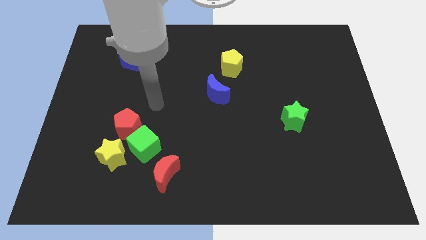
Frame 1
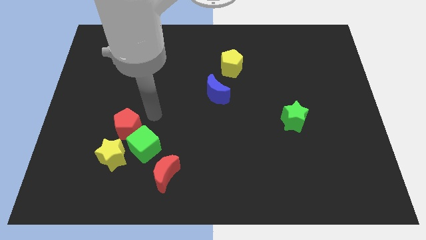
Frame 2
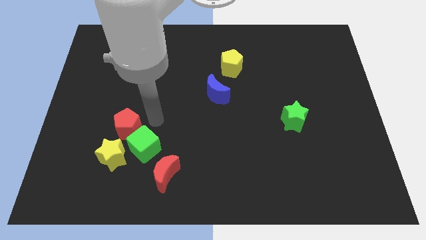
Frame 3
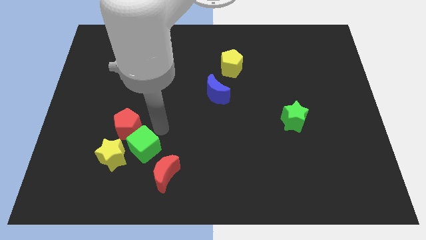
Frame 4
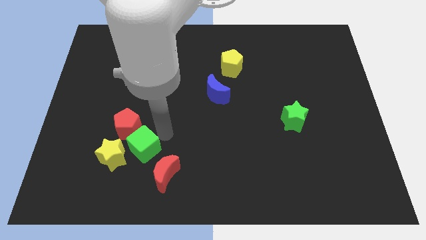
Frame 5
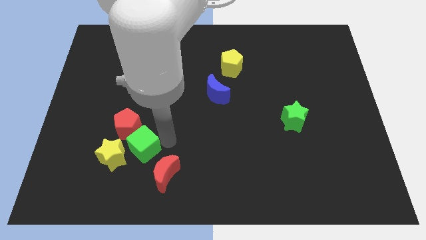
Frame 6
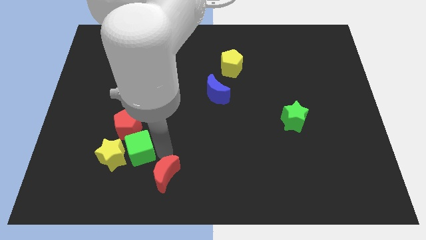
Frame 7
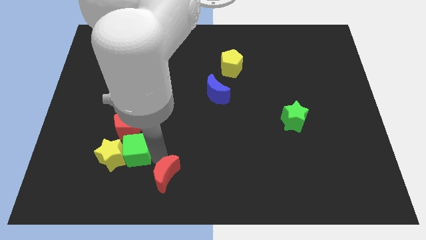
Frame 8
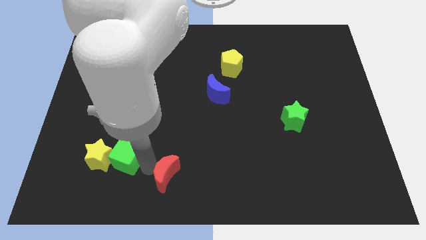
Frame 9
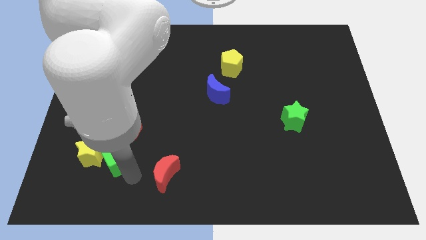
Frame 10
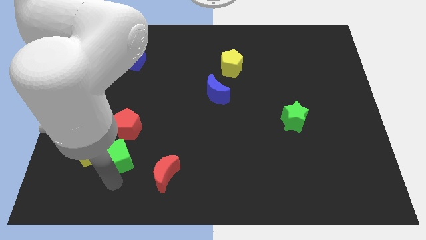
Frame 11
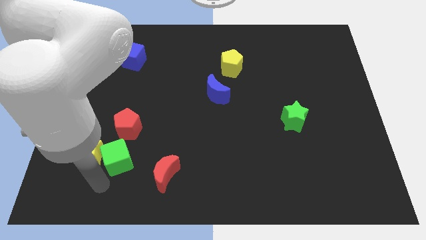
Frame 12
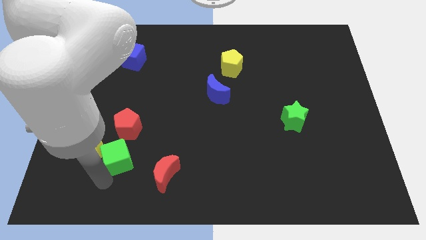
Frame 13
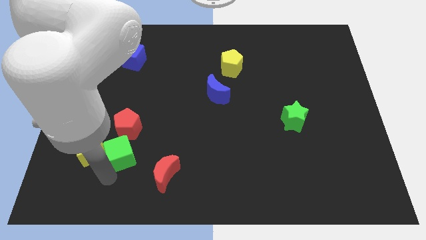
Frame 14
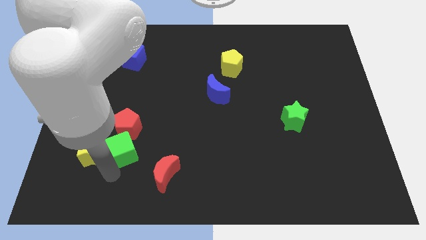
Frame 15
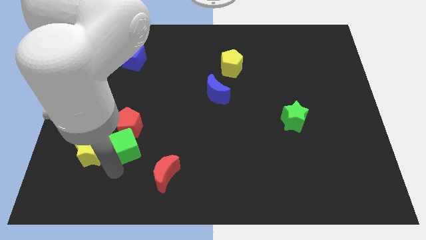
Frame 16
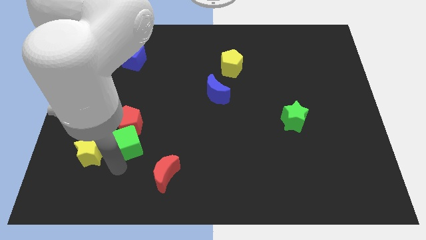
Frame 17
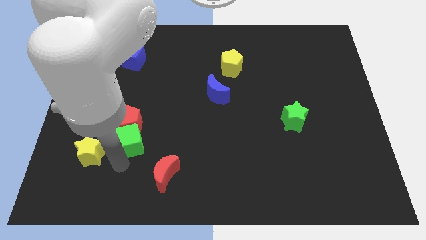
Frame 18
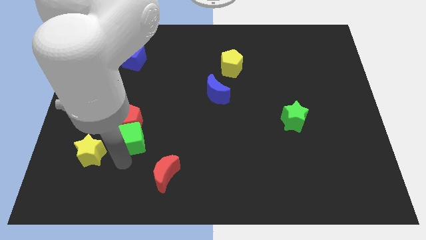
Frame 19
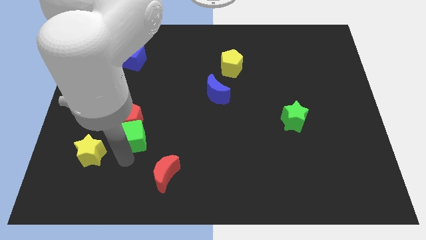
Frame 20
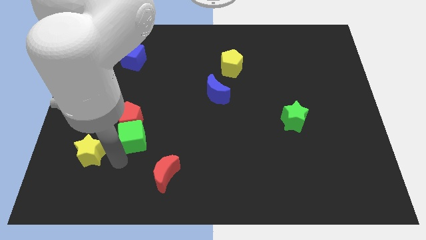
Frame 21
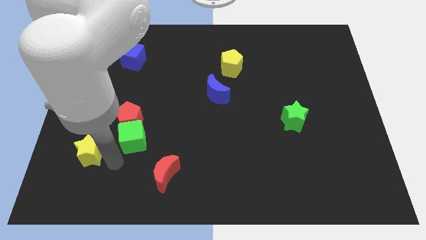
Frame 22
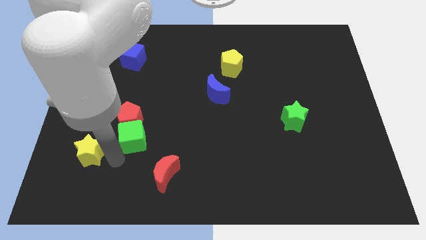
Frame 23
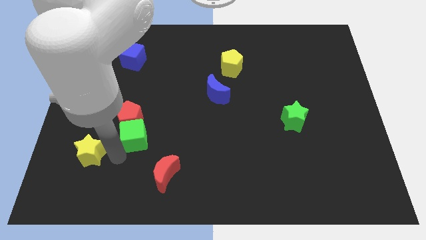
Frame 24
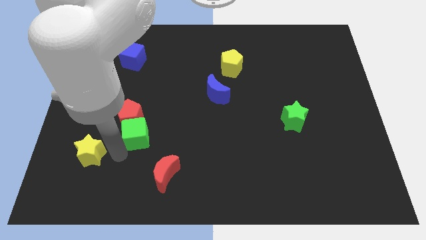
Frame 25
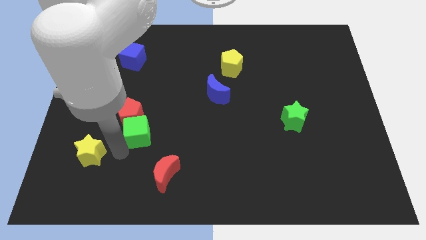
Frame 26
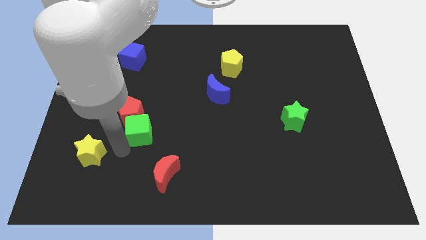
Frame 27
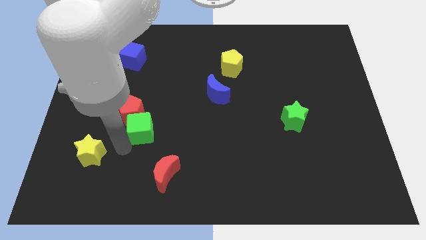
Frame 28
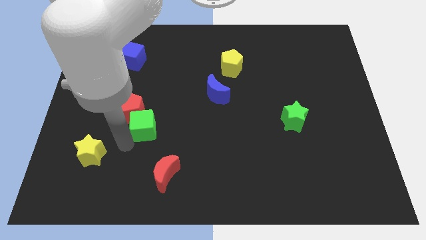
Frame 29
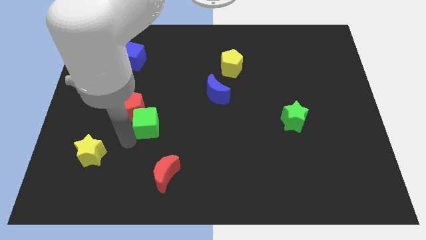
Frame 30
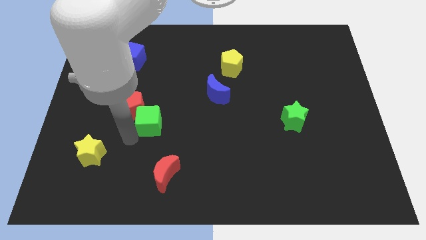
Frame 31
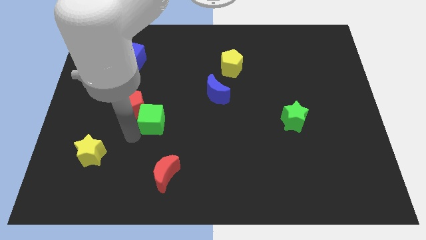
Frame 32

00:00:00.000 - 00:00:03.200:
push the green cube a little up

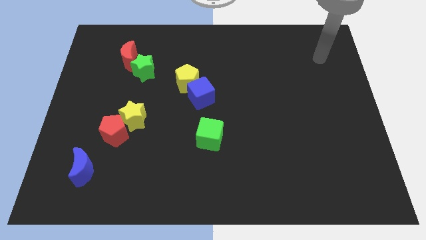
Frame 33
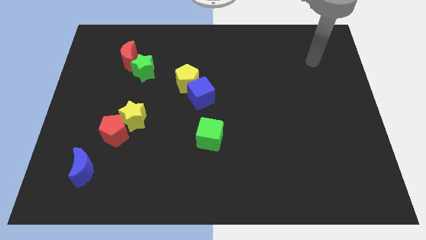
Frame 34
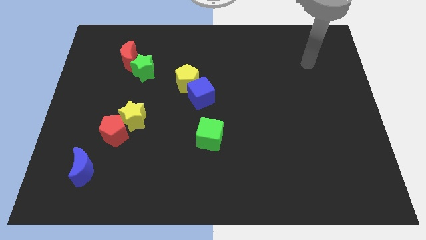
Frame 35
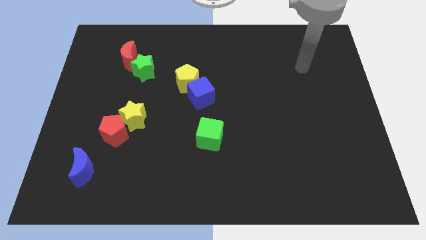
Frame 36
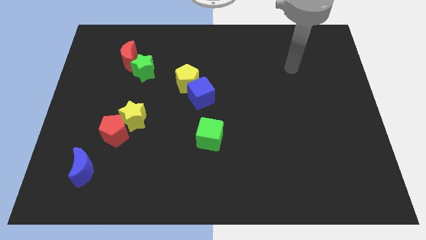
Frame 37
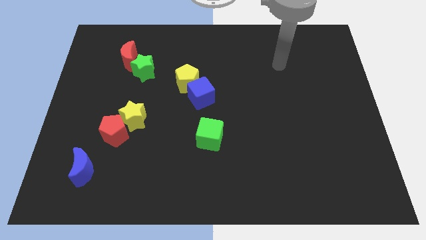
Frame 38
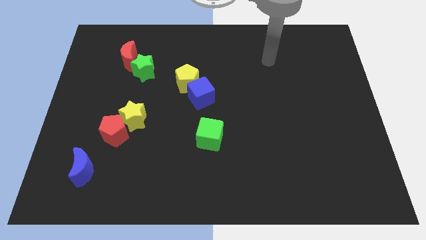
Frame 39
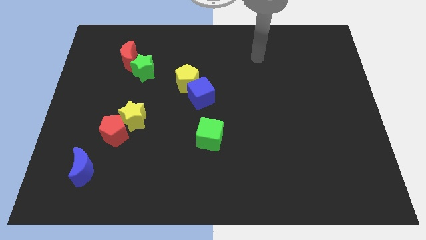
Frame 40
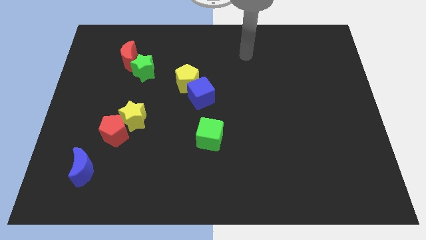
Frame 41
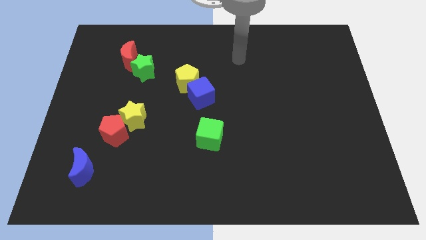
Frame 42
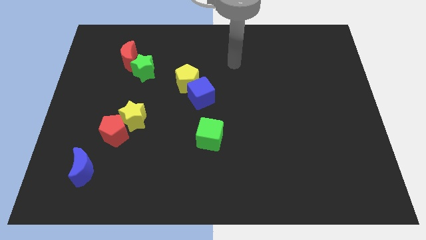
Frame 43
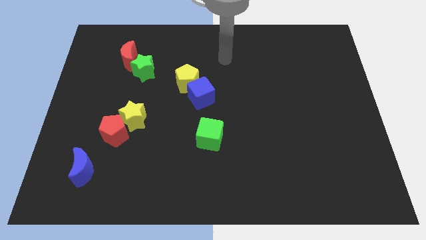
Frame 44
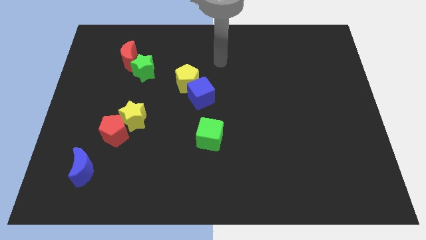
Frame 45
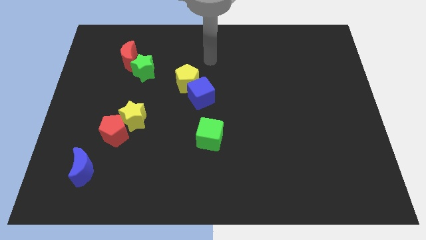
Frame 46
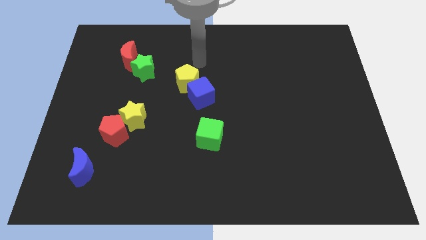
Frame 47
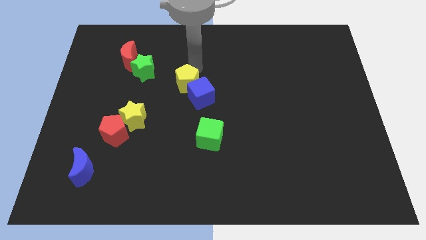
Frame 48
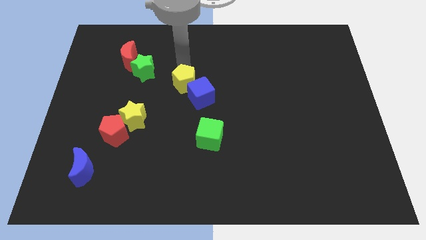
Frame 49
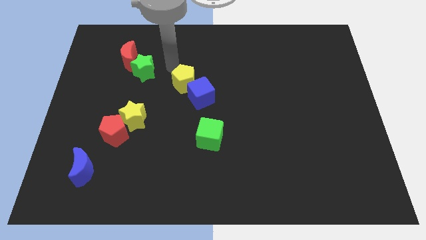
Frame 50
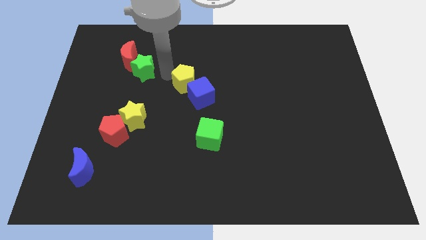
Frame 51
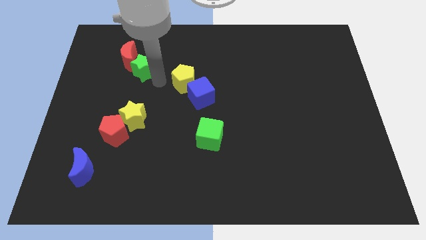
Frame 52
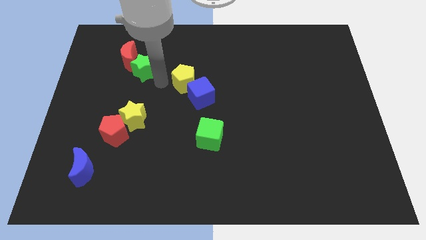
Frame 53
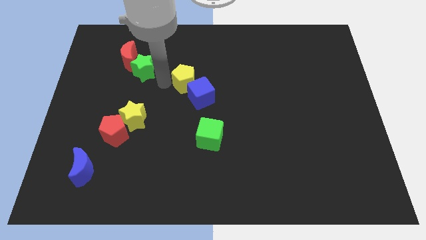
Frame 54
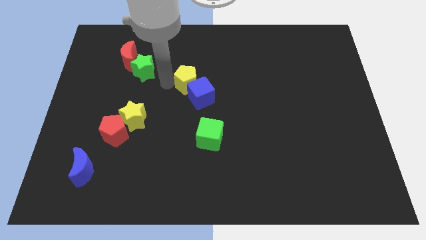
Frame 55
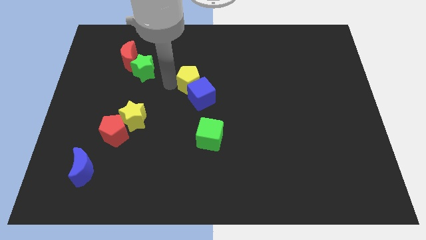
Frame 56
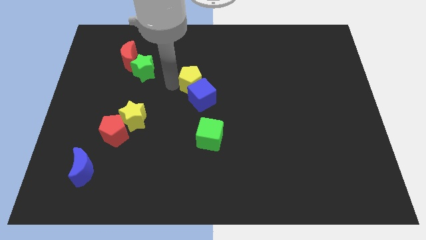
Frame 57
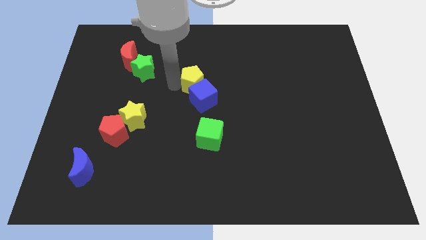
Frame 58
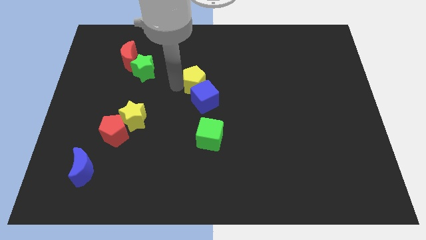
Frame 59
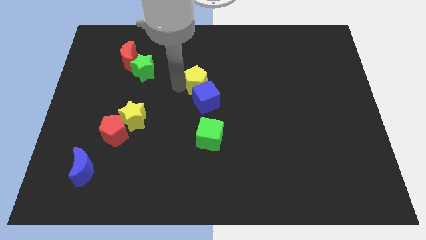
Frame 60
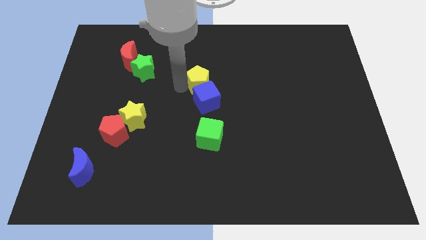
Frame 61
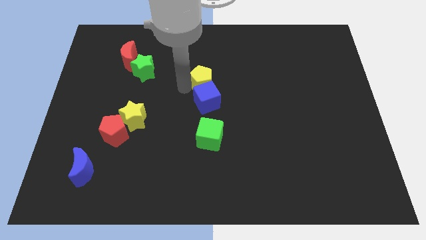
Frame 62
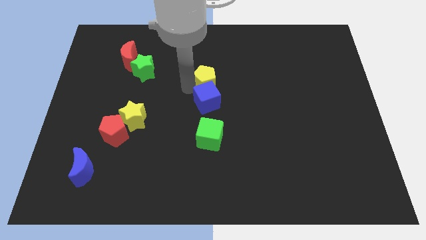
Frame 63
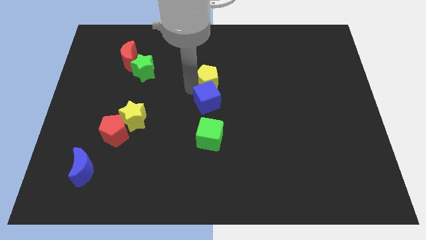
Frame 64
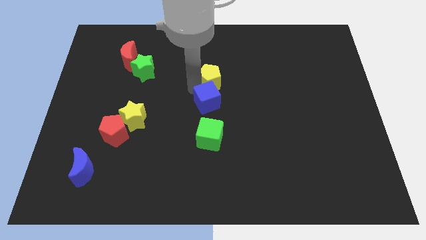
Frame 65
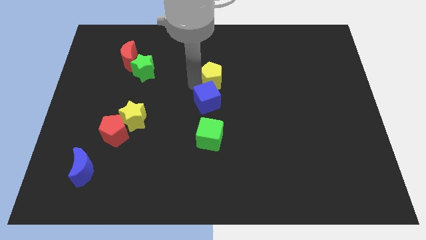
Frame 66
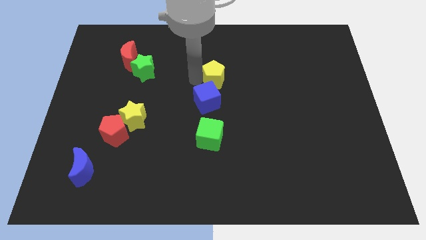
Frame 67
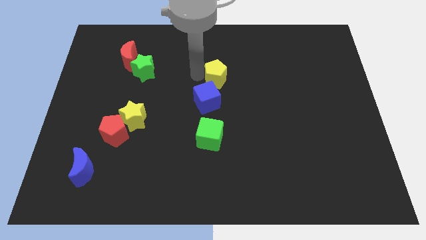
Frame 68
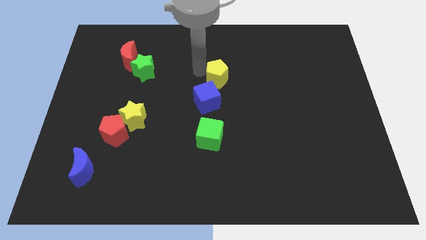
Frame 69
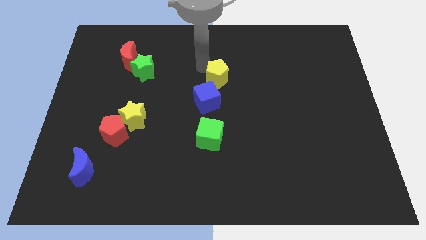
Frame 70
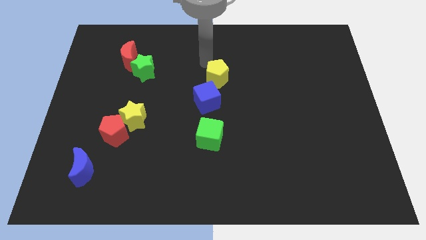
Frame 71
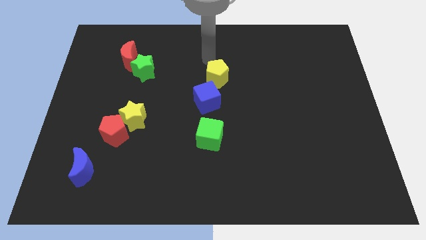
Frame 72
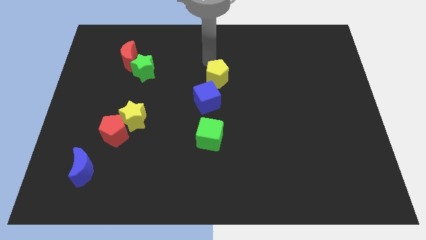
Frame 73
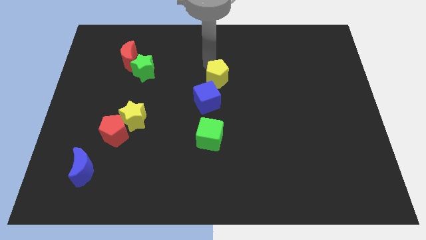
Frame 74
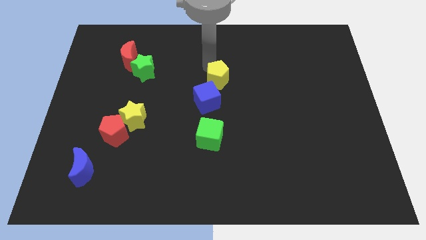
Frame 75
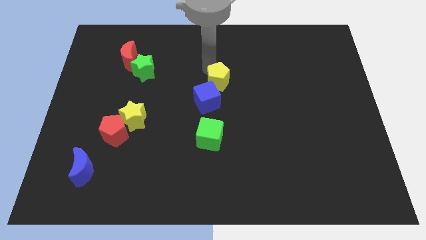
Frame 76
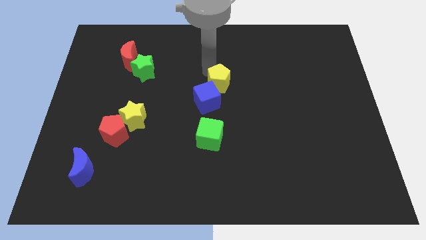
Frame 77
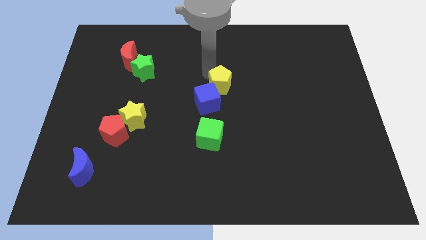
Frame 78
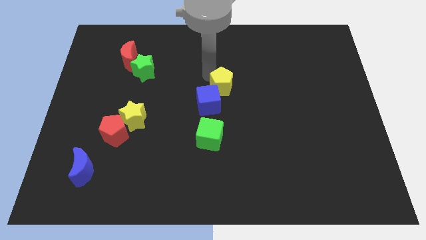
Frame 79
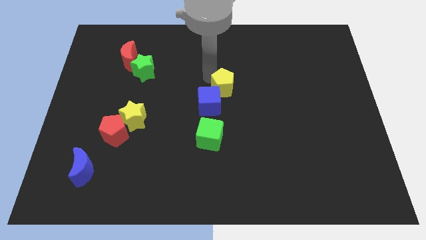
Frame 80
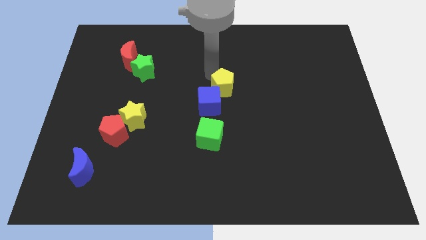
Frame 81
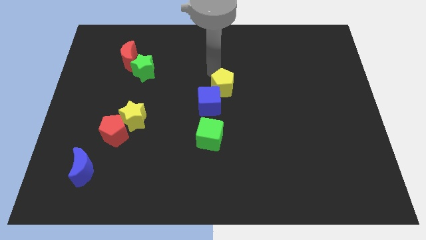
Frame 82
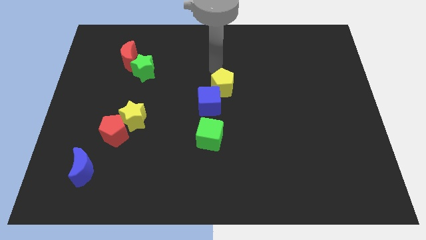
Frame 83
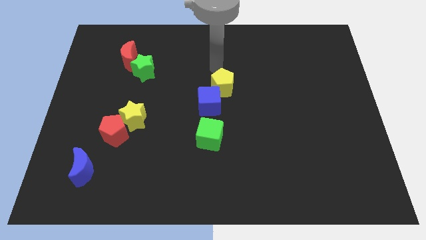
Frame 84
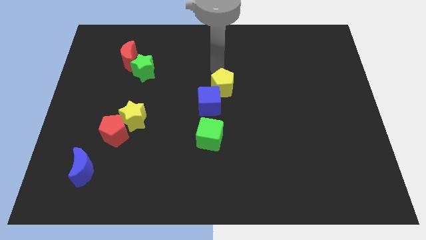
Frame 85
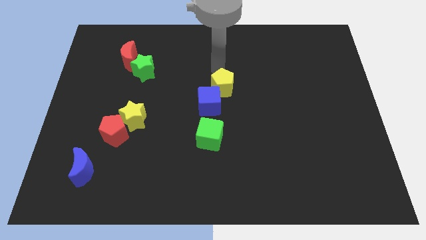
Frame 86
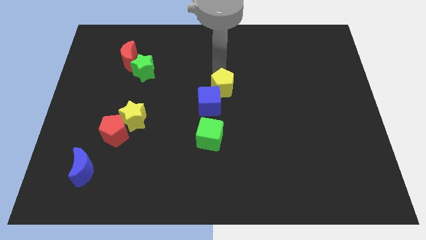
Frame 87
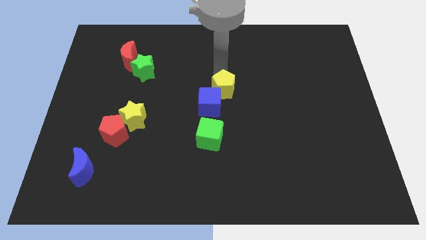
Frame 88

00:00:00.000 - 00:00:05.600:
slightly push the yellow pentagon diagonally downwards and to the right
